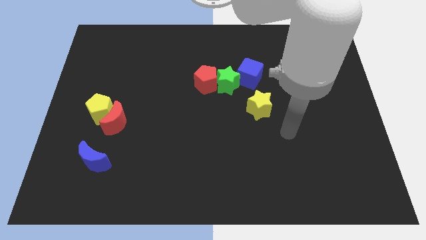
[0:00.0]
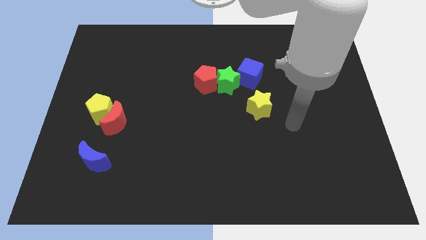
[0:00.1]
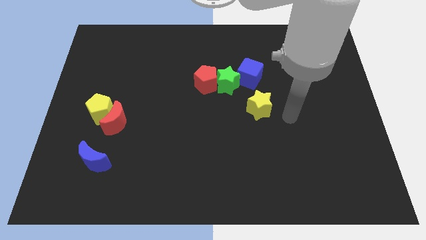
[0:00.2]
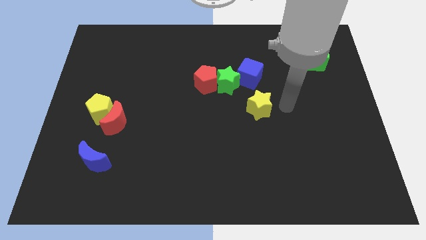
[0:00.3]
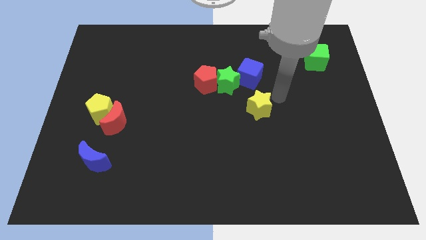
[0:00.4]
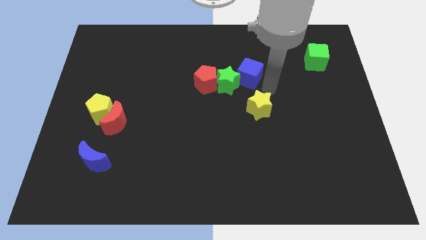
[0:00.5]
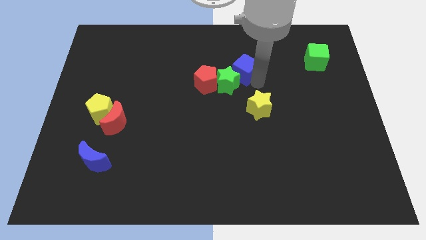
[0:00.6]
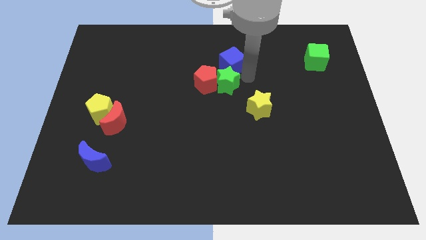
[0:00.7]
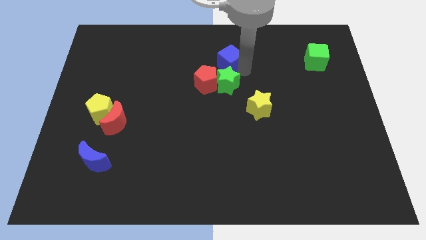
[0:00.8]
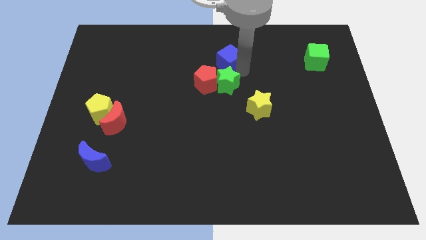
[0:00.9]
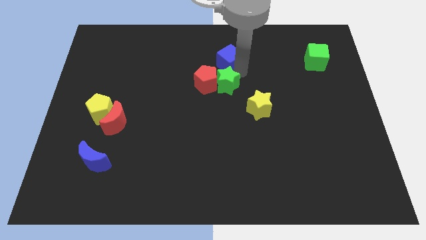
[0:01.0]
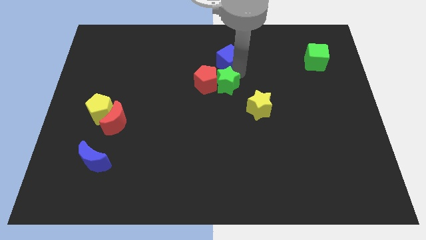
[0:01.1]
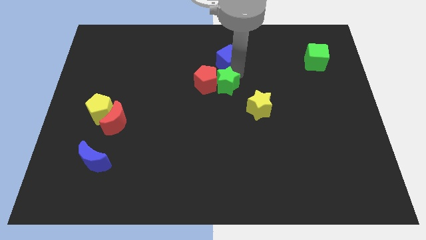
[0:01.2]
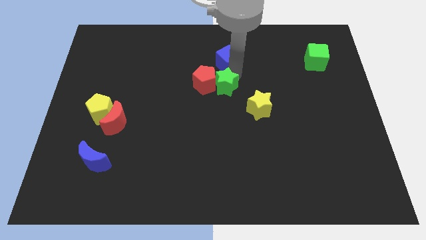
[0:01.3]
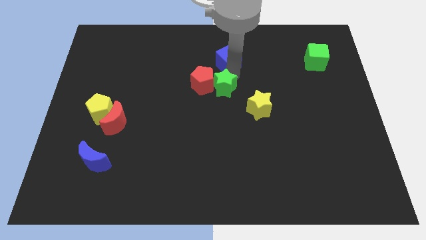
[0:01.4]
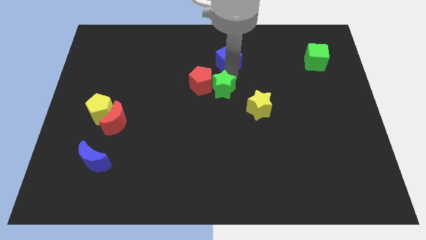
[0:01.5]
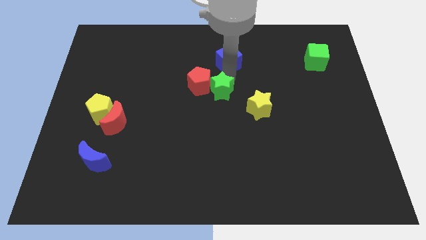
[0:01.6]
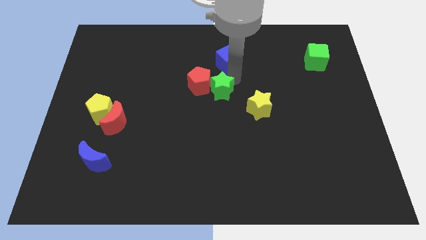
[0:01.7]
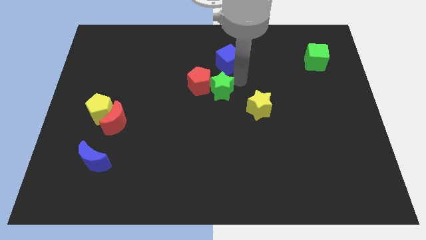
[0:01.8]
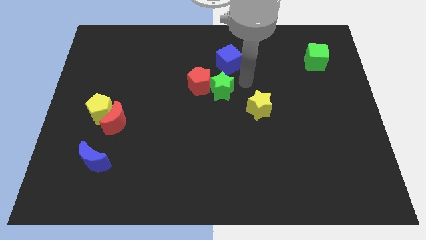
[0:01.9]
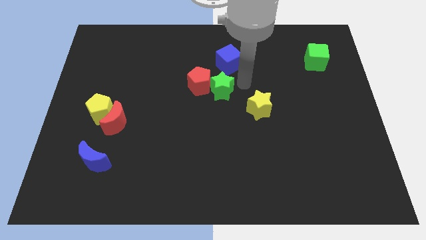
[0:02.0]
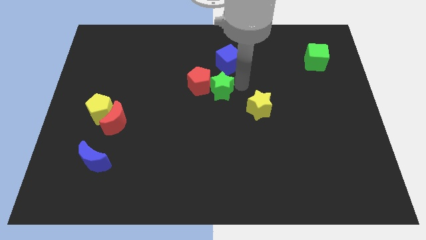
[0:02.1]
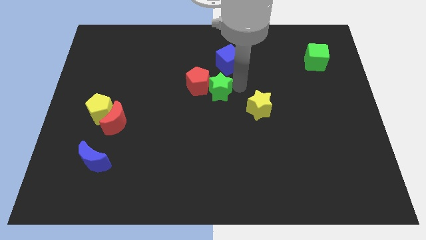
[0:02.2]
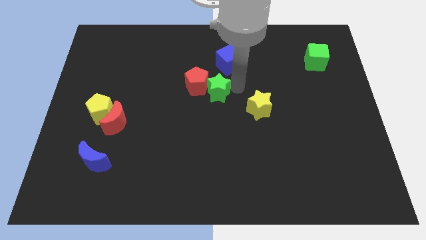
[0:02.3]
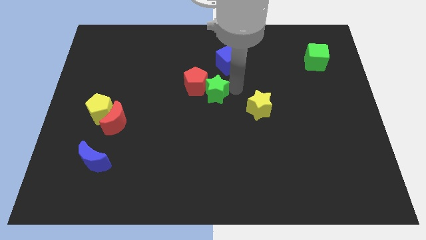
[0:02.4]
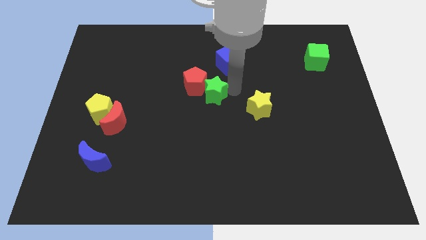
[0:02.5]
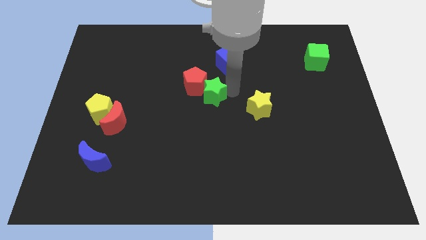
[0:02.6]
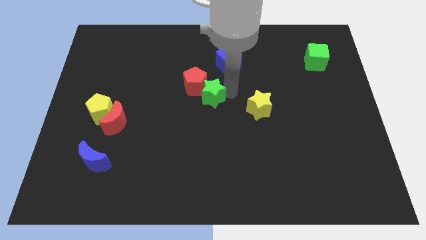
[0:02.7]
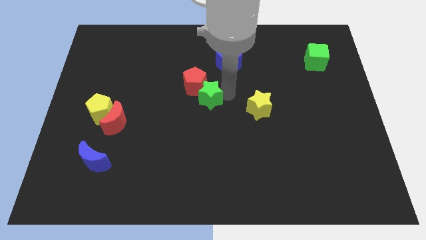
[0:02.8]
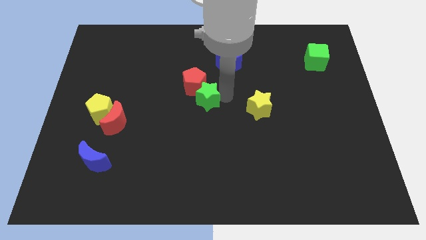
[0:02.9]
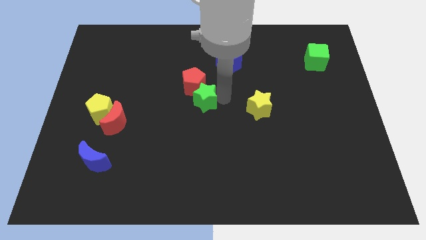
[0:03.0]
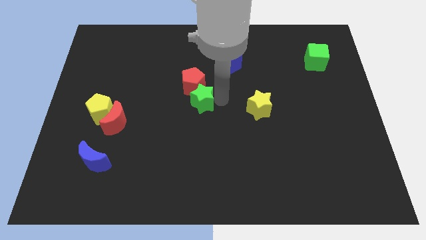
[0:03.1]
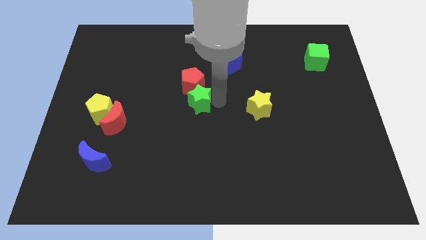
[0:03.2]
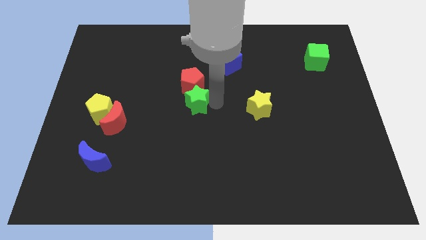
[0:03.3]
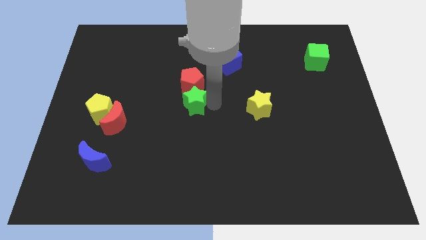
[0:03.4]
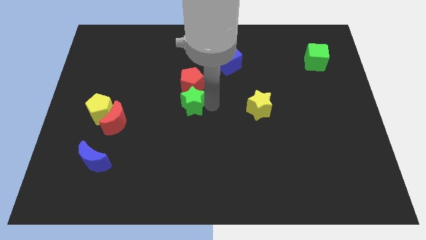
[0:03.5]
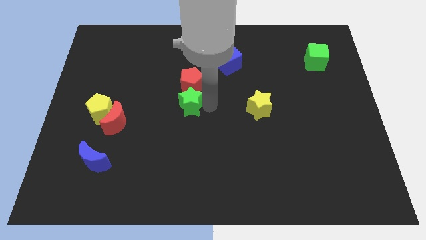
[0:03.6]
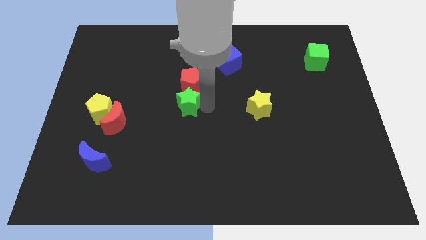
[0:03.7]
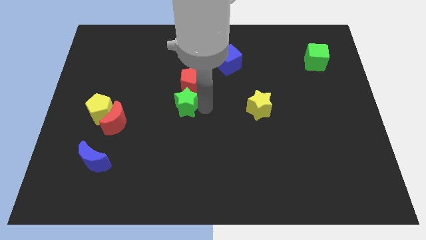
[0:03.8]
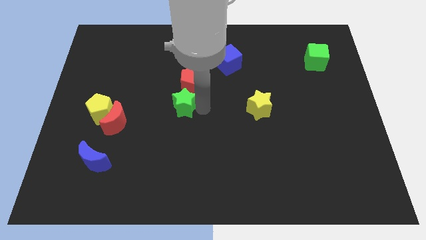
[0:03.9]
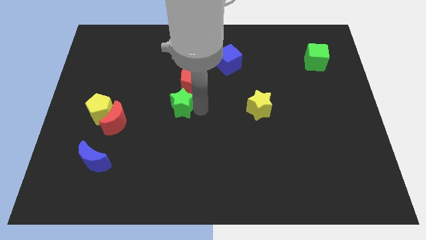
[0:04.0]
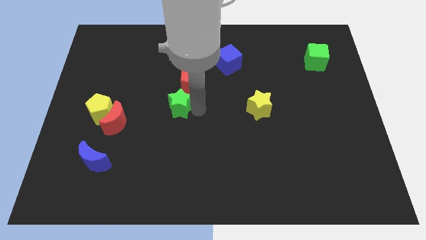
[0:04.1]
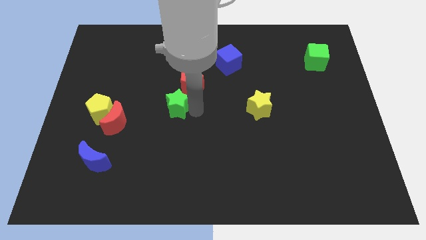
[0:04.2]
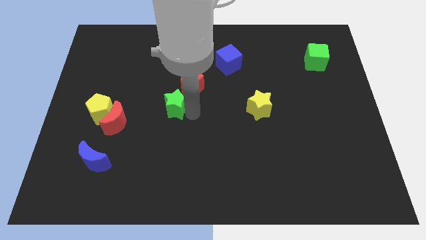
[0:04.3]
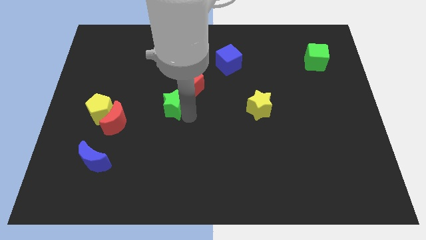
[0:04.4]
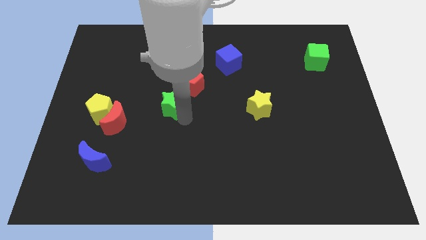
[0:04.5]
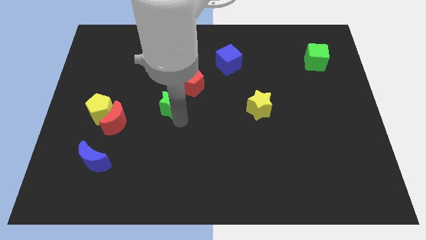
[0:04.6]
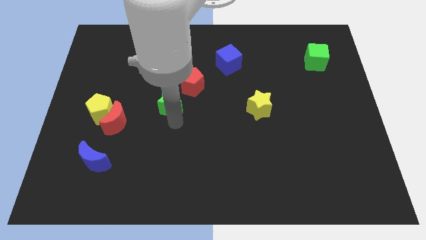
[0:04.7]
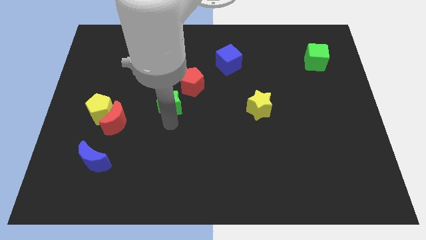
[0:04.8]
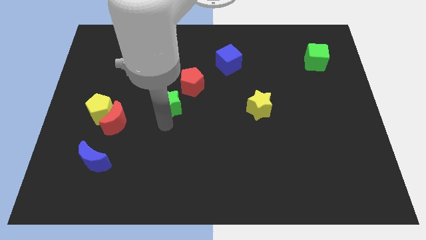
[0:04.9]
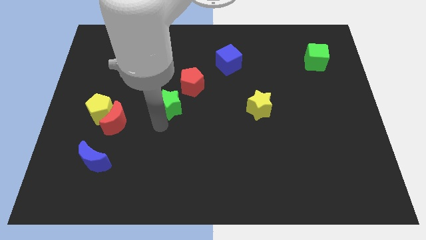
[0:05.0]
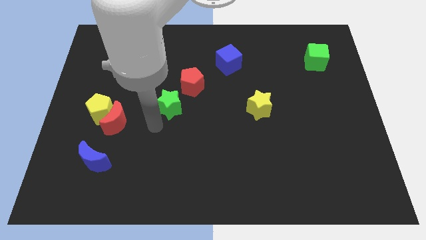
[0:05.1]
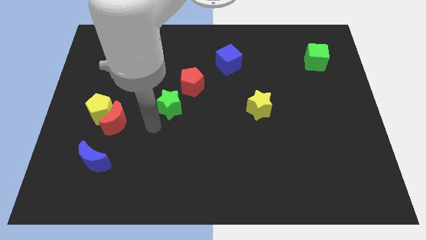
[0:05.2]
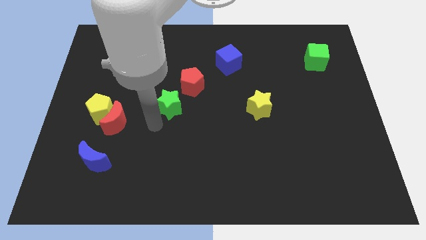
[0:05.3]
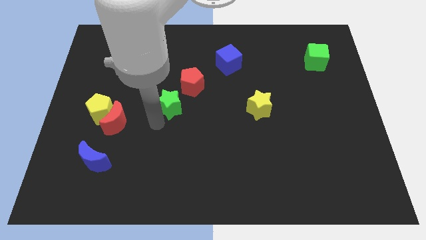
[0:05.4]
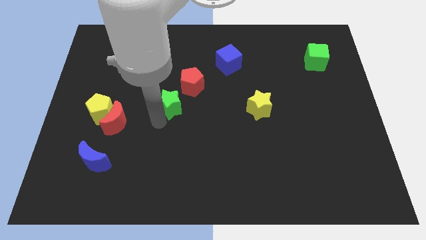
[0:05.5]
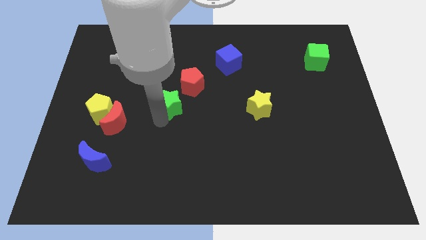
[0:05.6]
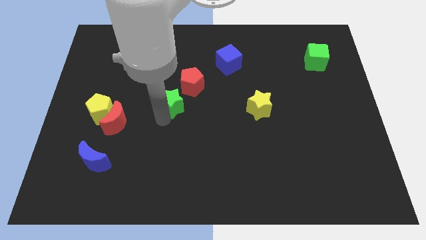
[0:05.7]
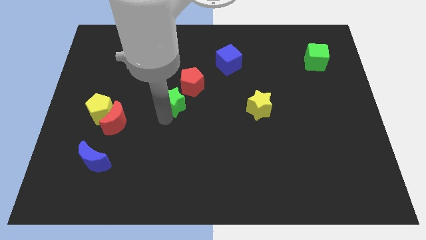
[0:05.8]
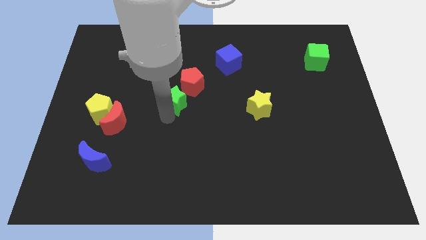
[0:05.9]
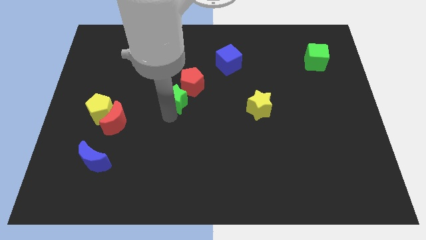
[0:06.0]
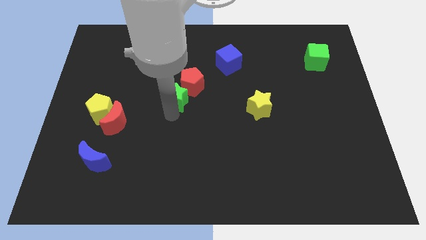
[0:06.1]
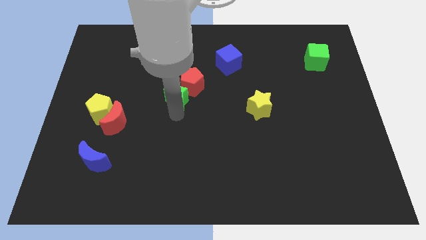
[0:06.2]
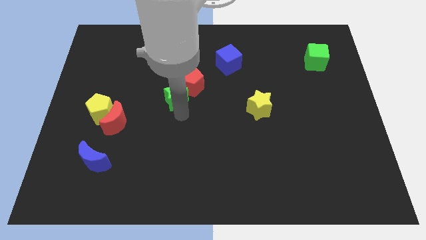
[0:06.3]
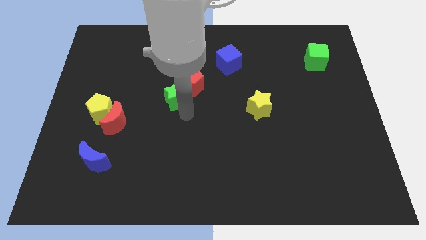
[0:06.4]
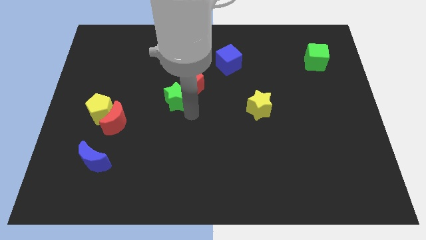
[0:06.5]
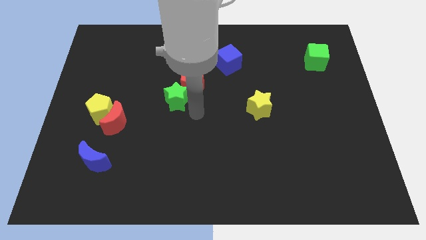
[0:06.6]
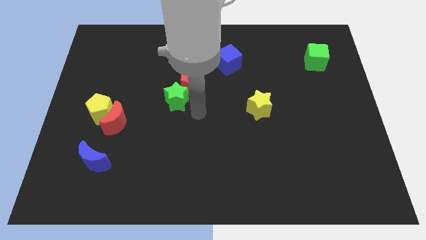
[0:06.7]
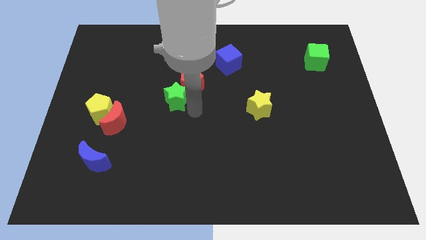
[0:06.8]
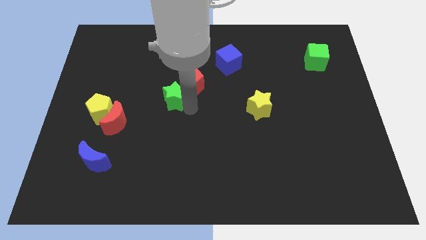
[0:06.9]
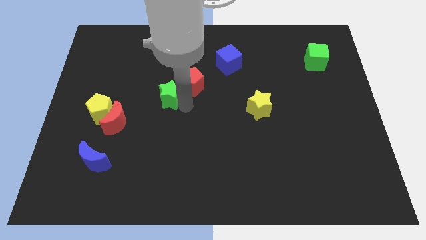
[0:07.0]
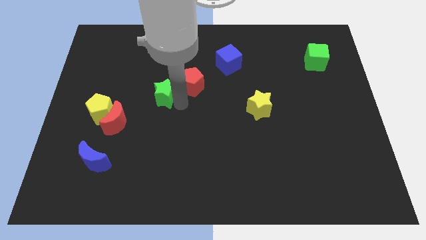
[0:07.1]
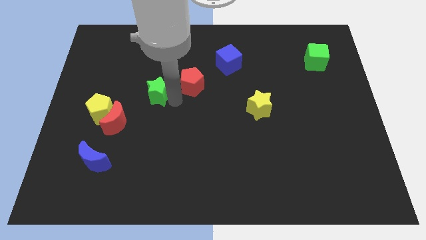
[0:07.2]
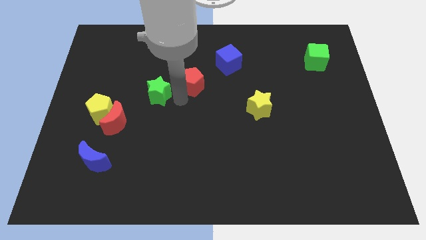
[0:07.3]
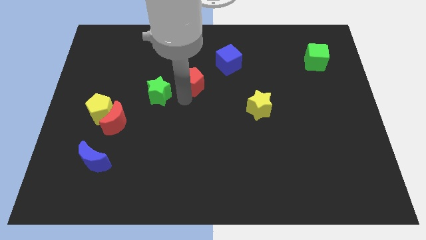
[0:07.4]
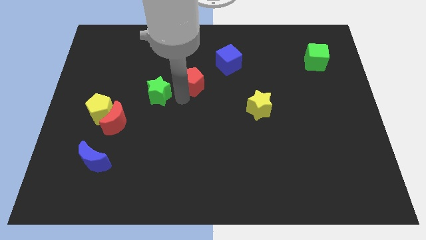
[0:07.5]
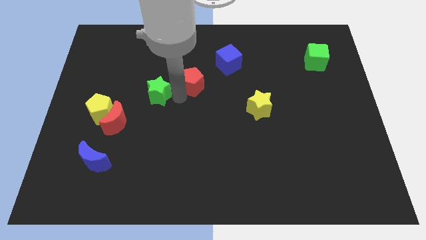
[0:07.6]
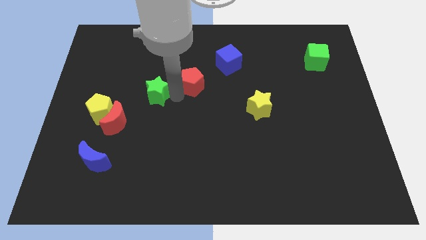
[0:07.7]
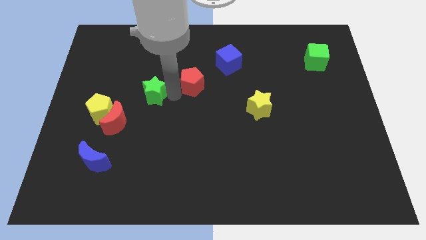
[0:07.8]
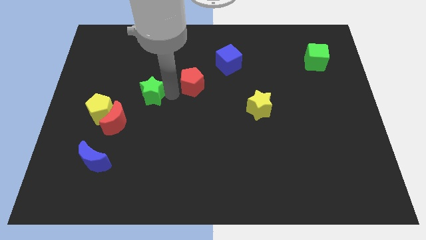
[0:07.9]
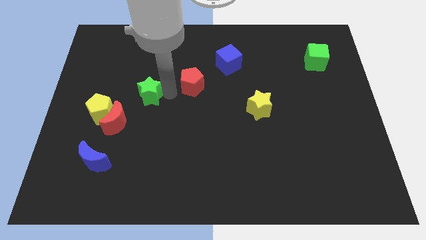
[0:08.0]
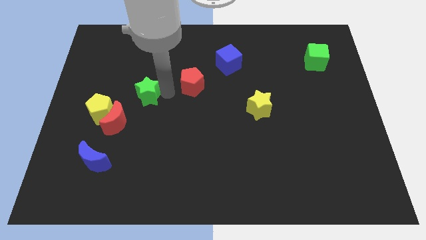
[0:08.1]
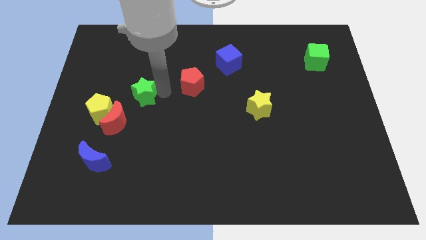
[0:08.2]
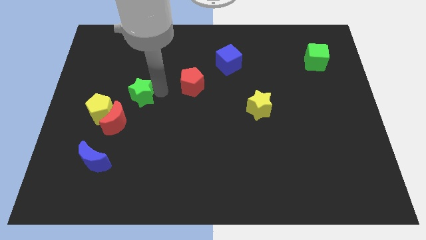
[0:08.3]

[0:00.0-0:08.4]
move the green star left
